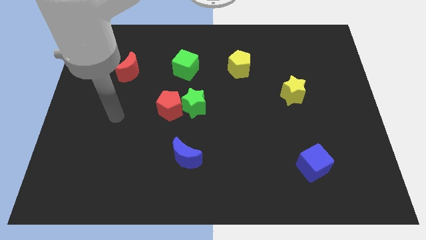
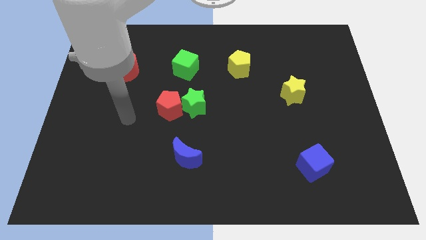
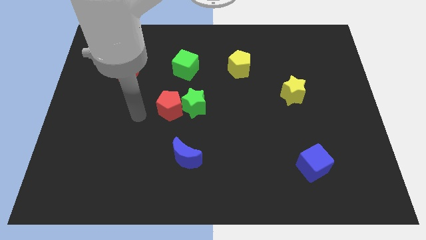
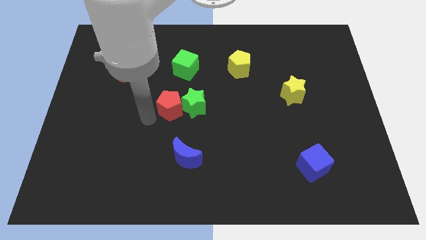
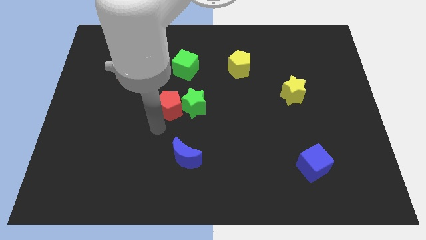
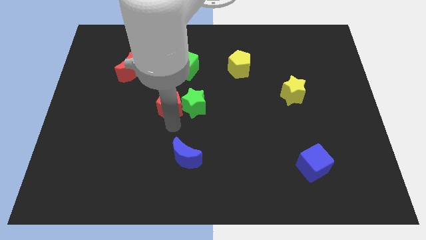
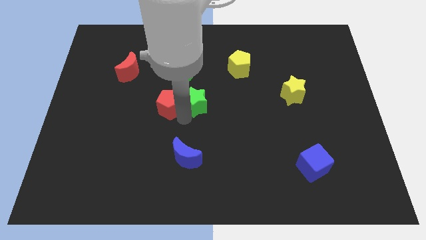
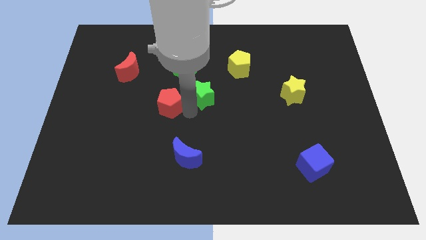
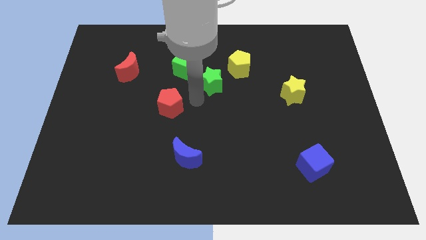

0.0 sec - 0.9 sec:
pull the red pentagon apart from the green star

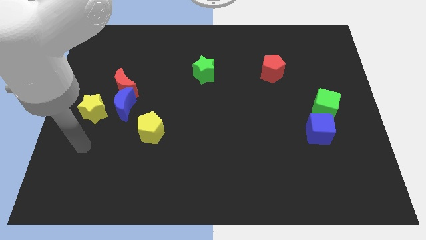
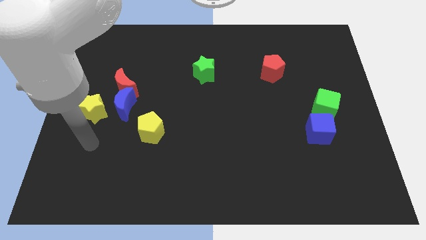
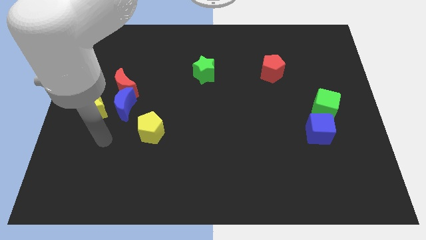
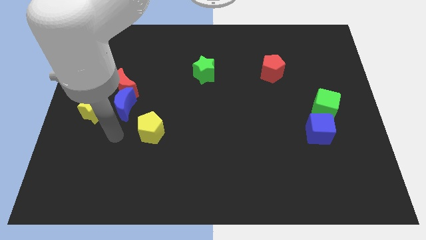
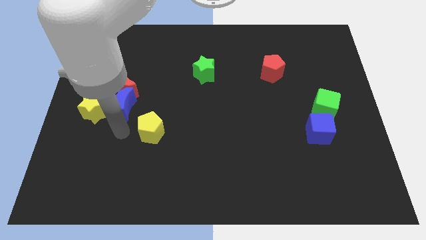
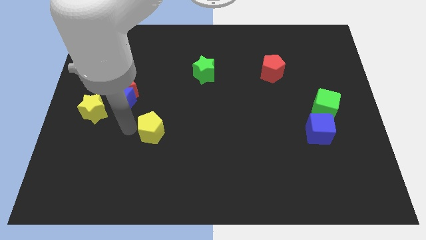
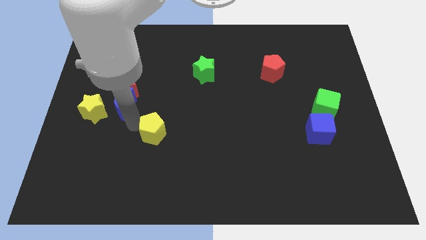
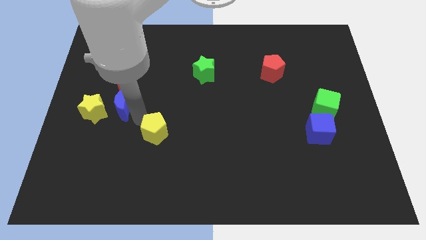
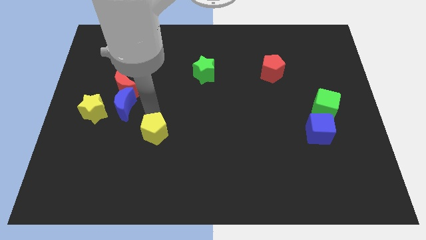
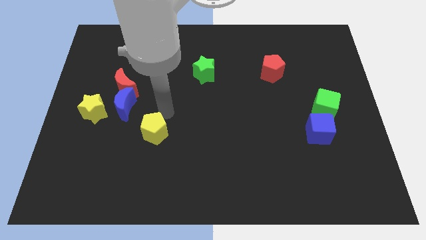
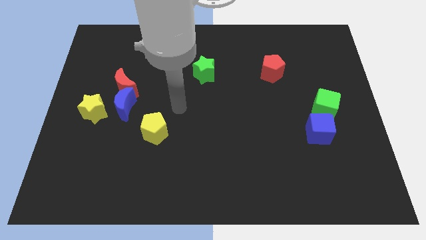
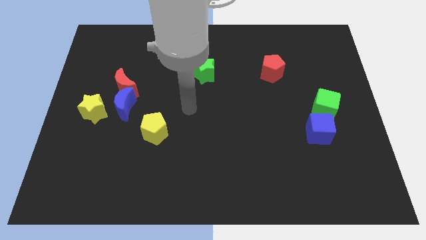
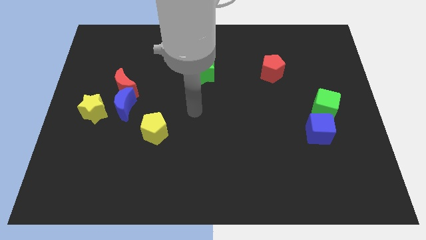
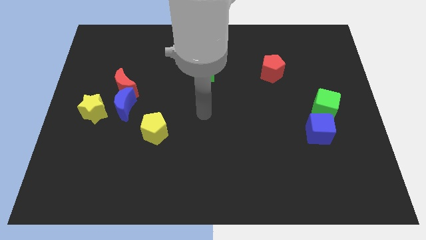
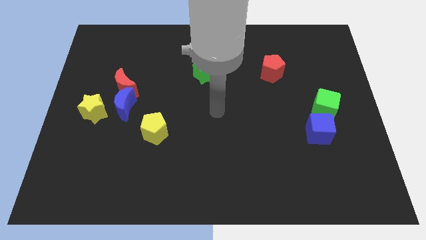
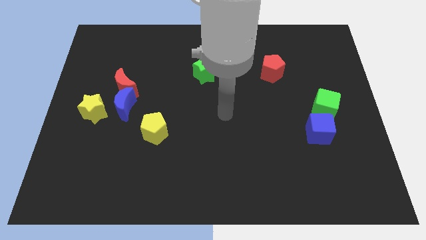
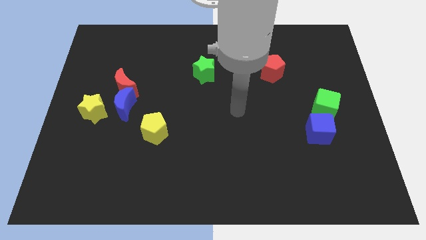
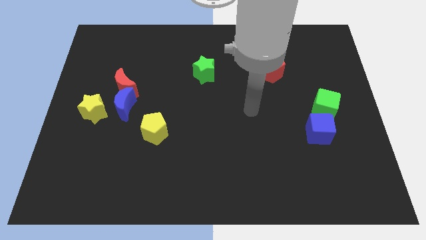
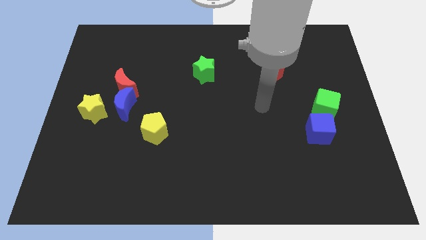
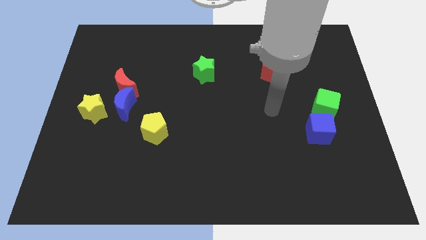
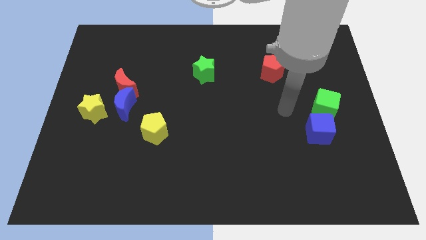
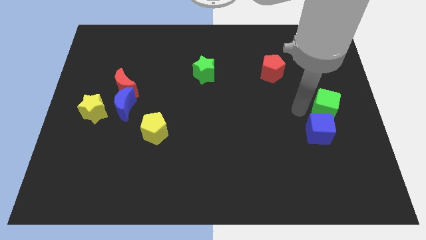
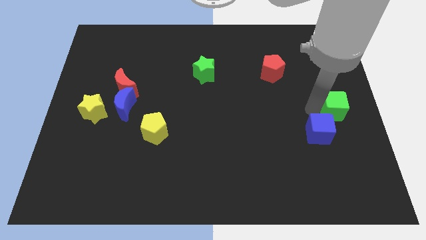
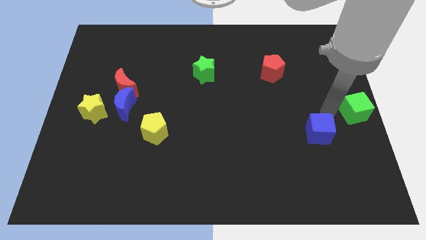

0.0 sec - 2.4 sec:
move the blue cube away from the green cube

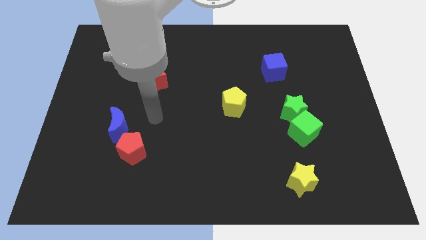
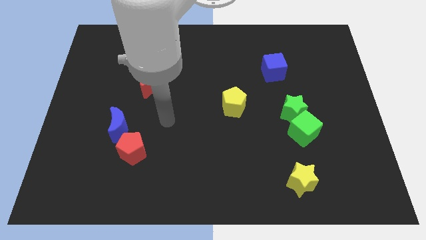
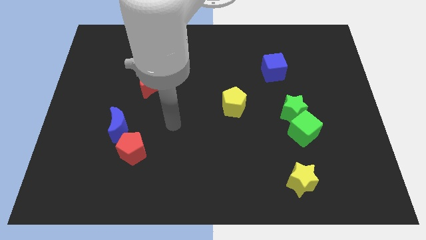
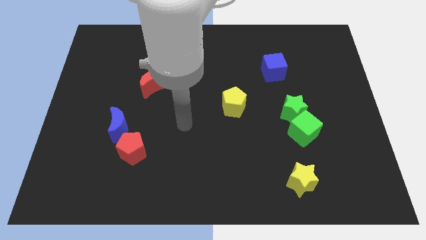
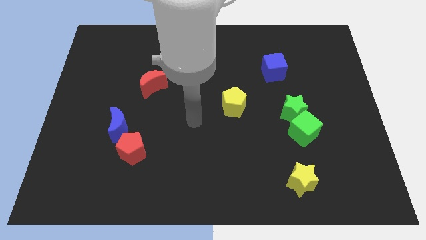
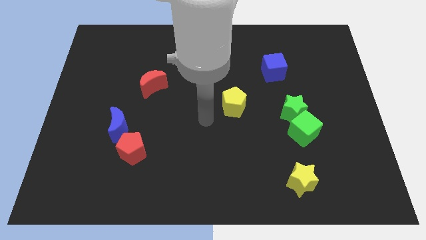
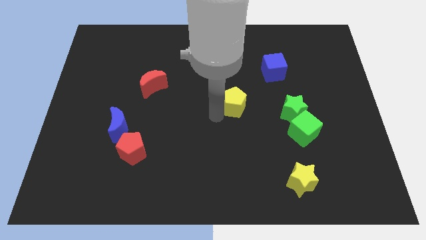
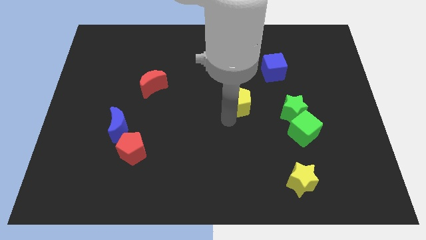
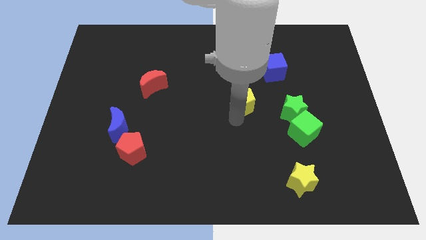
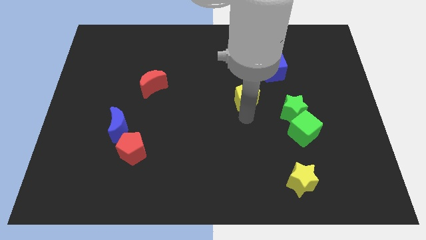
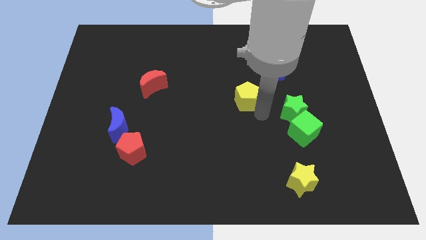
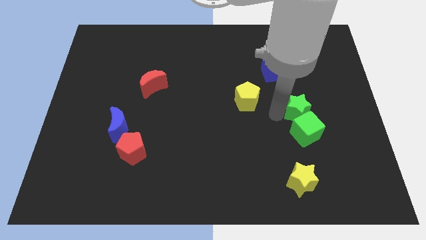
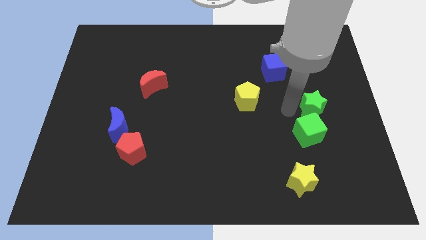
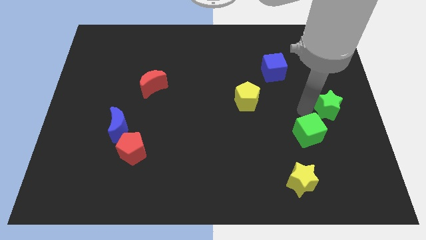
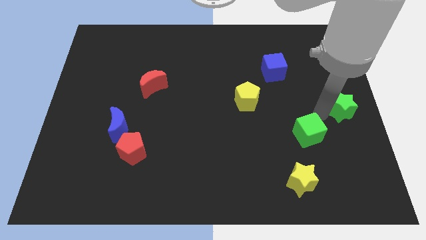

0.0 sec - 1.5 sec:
pull the green cube apart from the green star

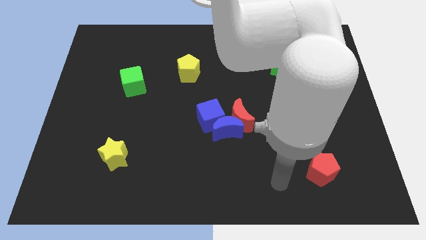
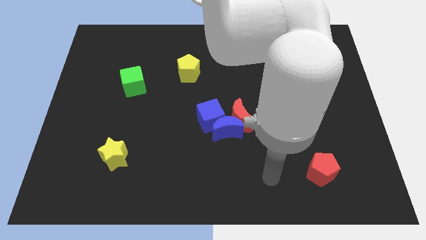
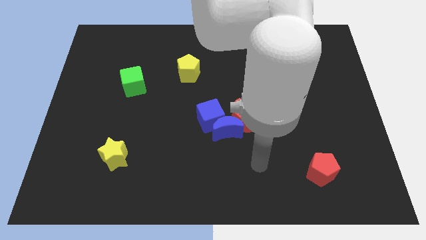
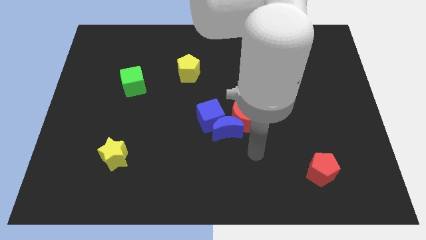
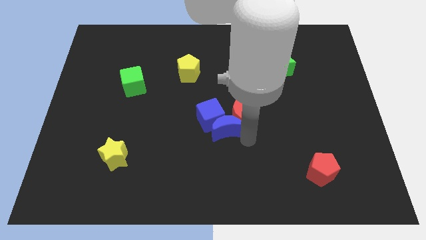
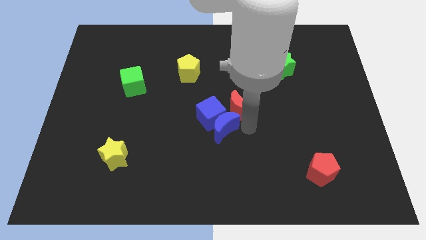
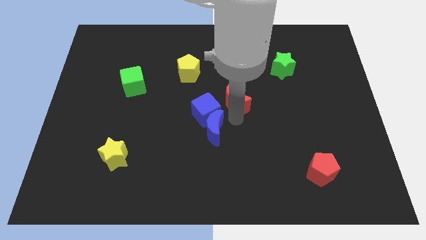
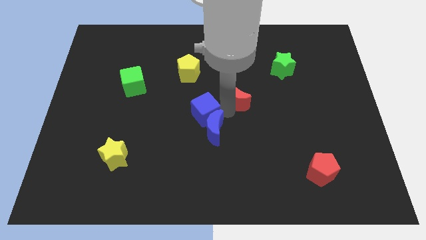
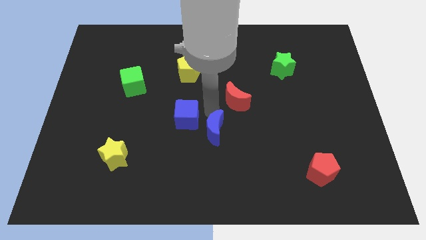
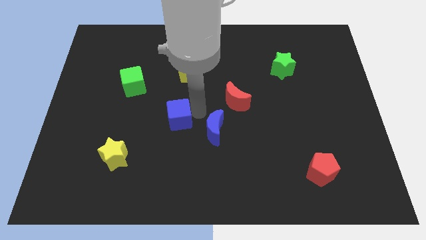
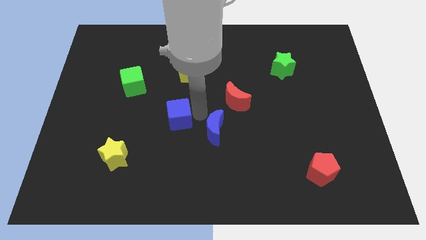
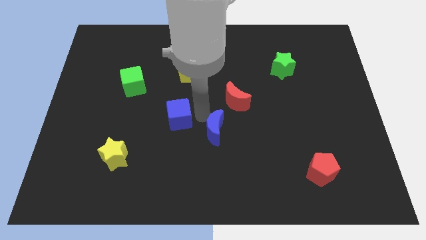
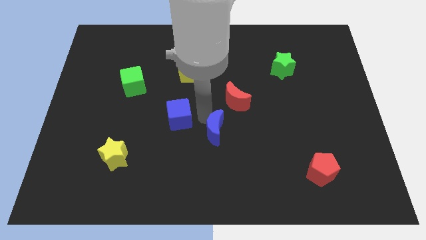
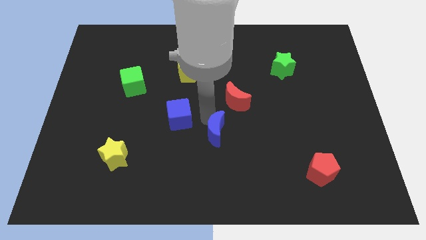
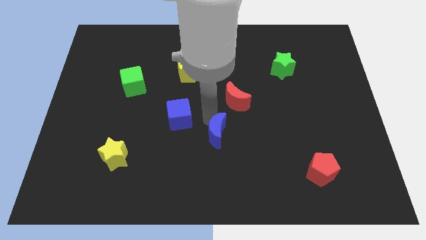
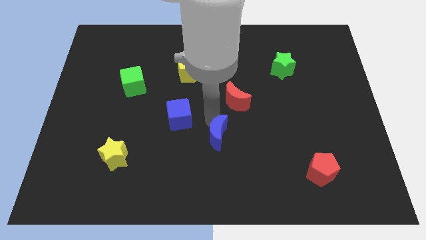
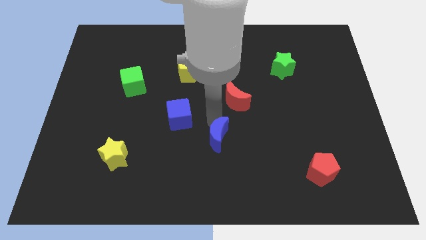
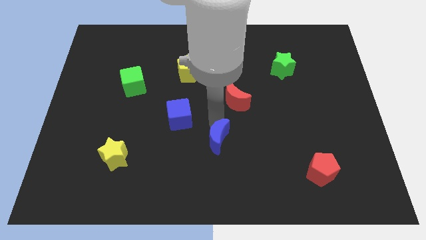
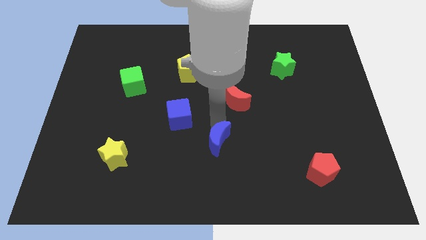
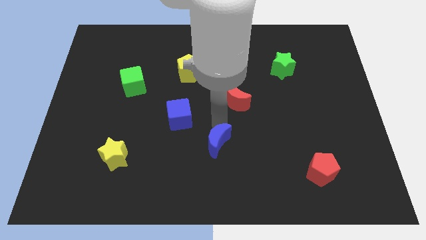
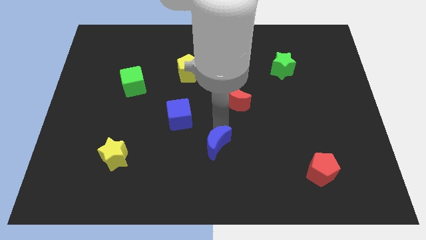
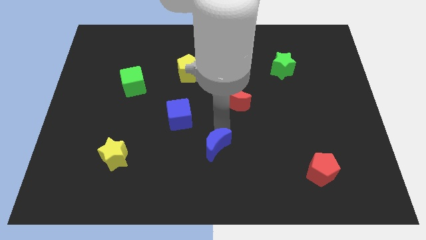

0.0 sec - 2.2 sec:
pull the blue moon apart from the red moon and blue cube

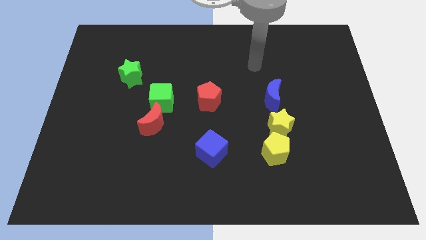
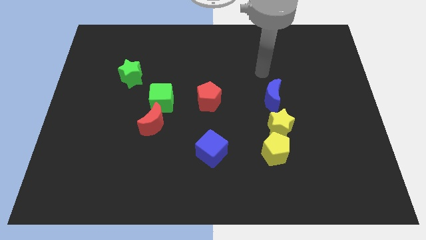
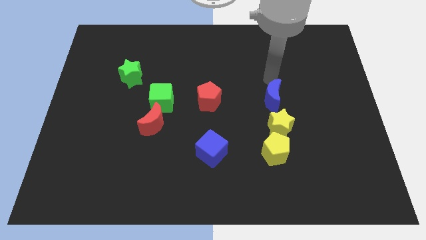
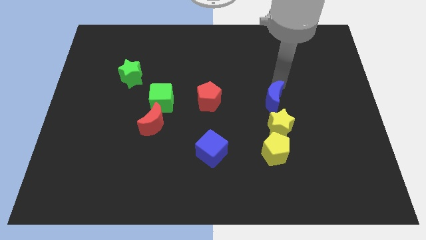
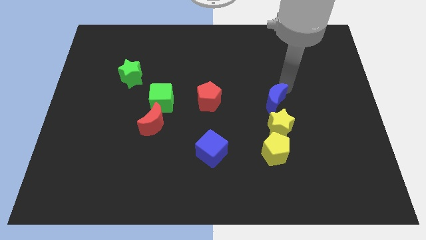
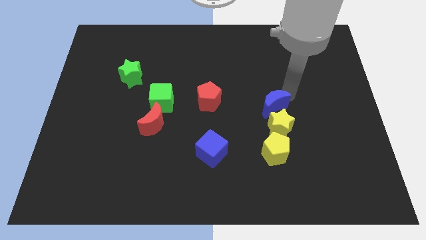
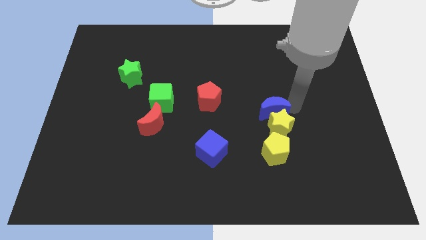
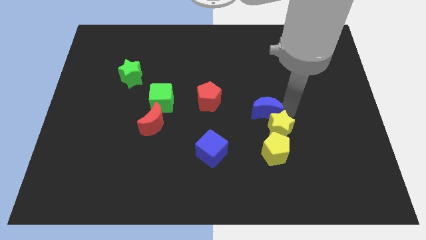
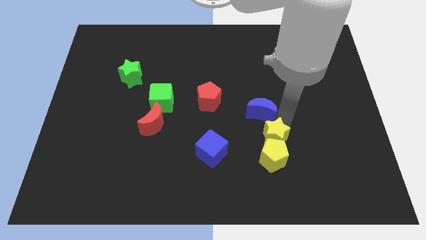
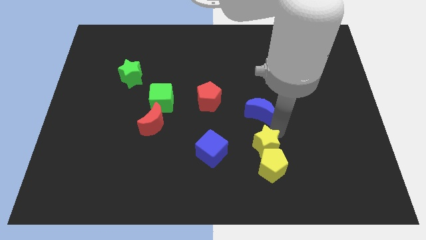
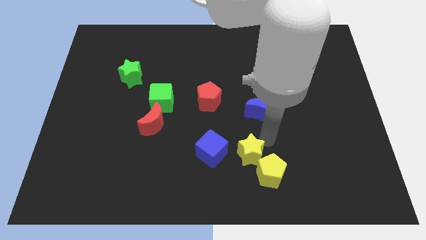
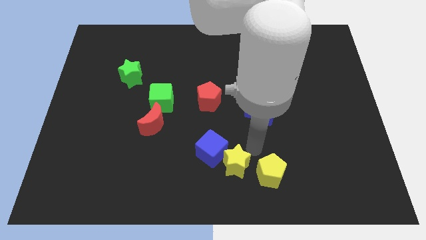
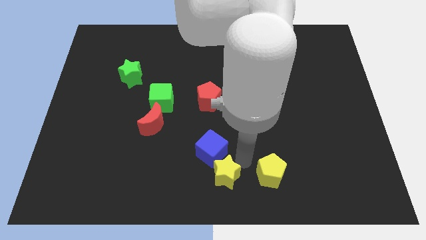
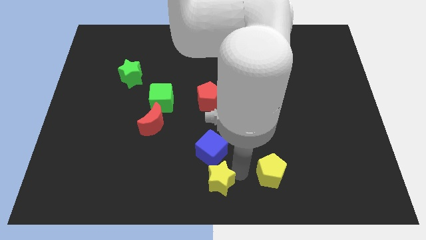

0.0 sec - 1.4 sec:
move the yellow pentagon away from the yellow star

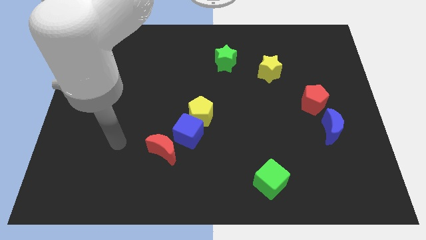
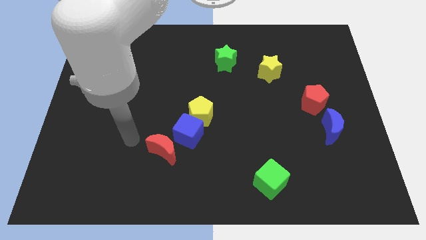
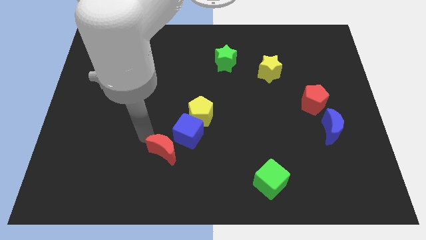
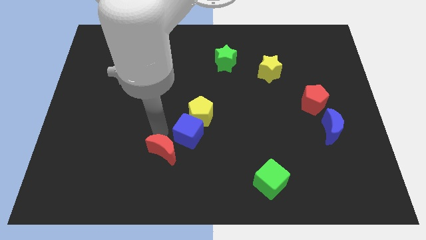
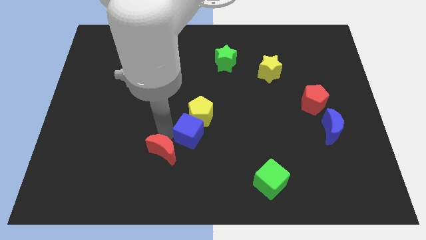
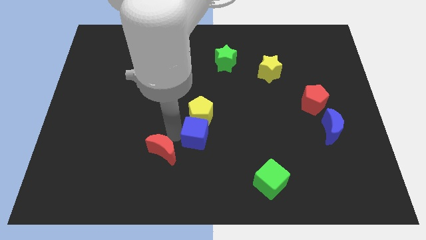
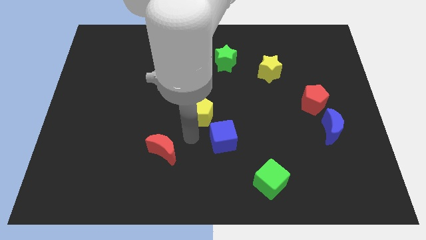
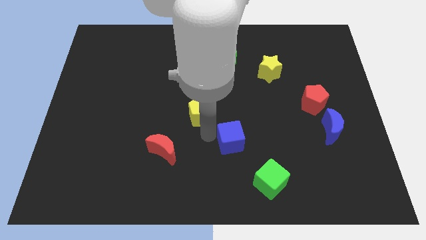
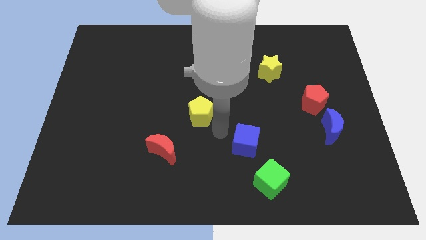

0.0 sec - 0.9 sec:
pull the yellow pentagon apart from the blue cube
